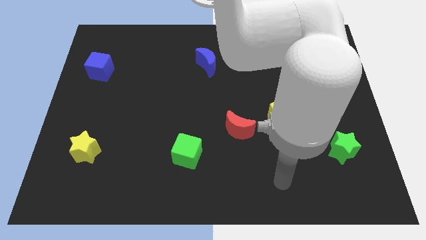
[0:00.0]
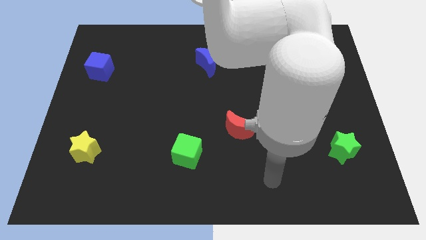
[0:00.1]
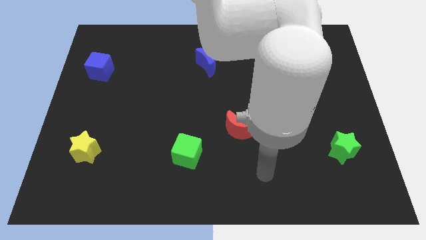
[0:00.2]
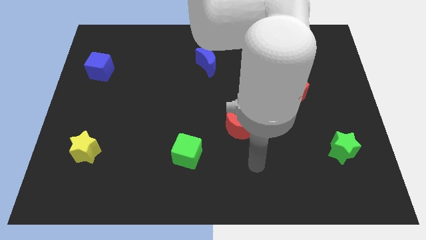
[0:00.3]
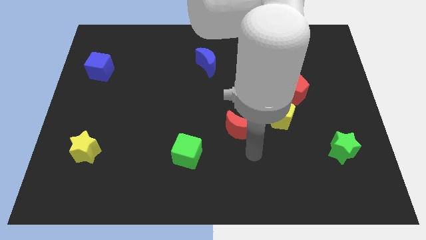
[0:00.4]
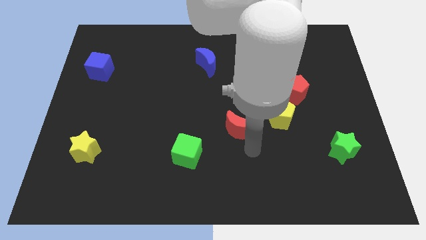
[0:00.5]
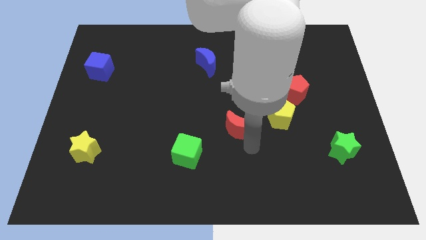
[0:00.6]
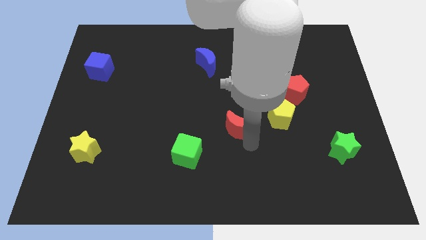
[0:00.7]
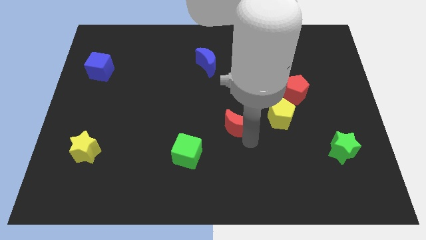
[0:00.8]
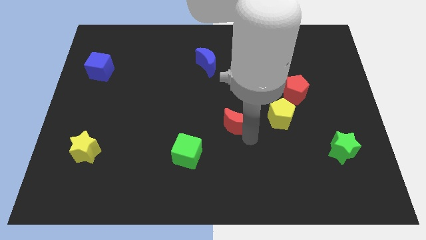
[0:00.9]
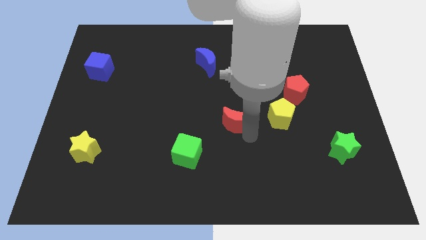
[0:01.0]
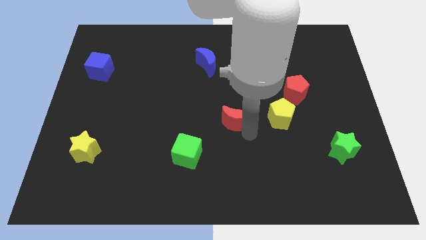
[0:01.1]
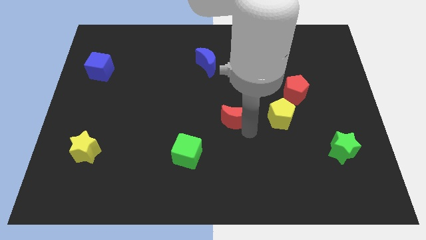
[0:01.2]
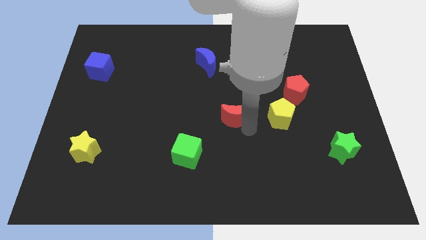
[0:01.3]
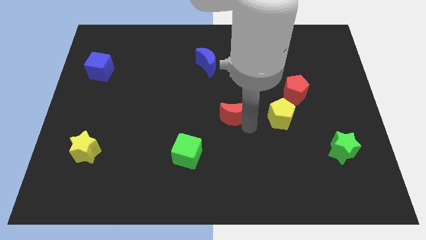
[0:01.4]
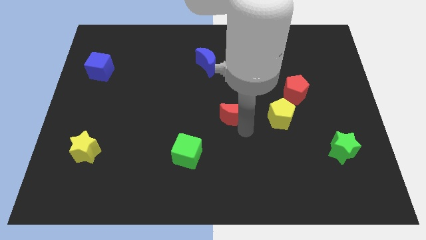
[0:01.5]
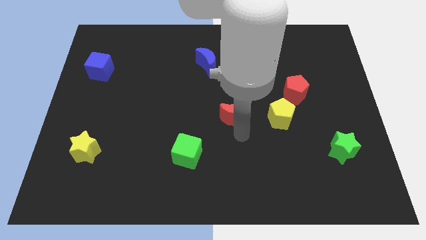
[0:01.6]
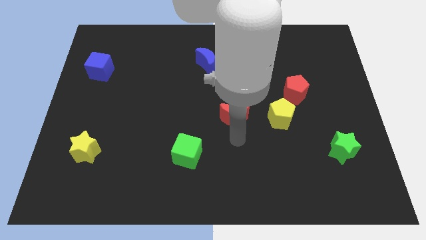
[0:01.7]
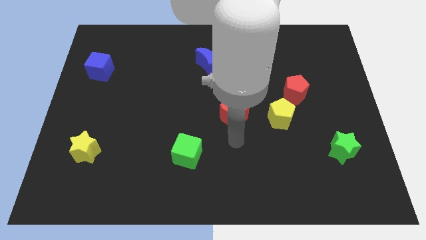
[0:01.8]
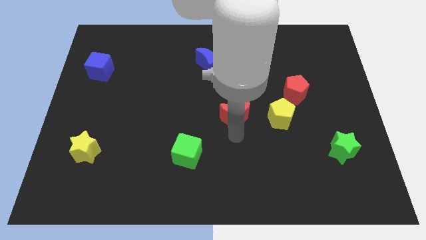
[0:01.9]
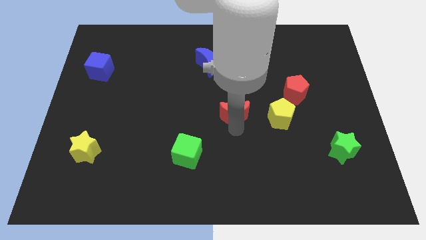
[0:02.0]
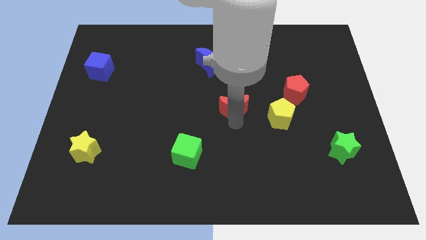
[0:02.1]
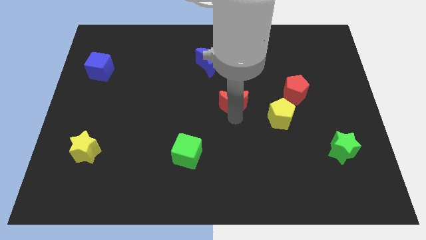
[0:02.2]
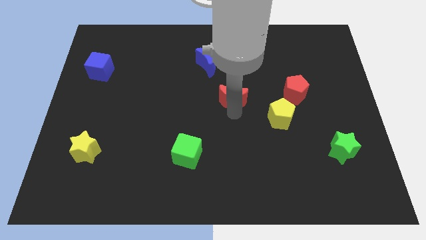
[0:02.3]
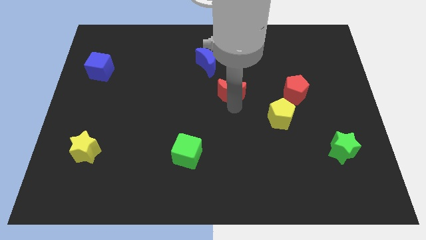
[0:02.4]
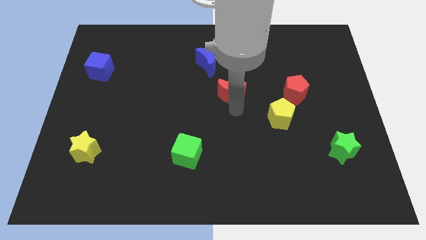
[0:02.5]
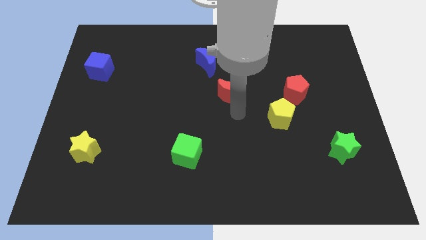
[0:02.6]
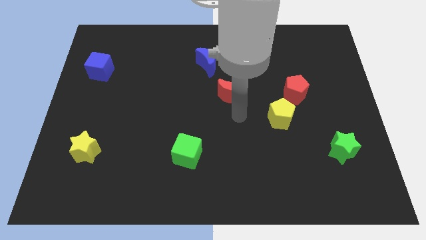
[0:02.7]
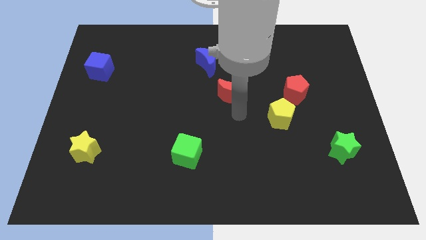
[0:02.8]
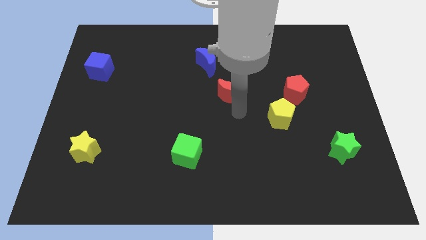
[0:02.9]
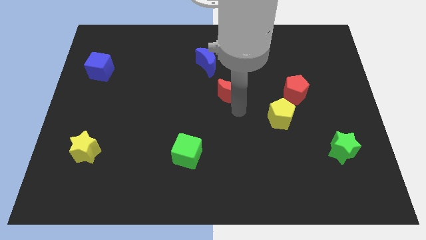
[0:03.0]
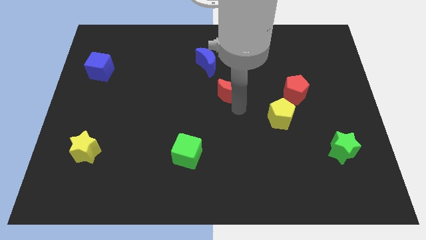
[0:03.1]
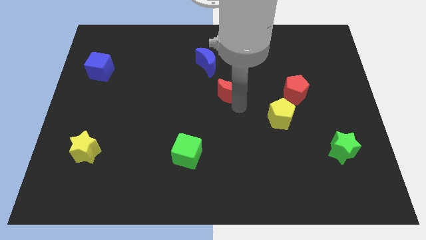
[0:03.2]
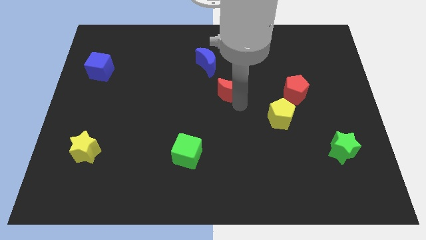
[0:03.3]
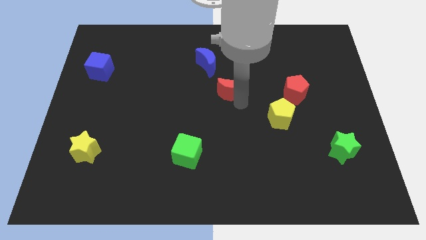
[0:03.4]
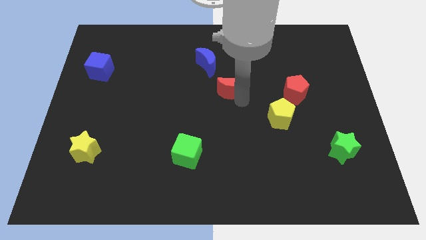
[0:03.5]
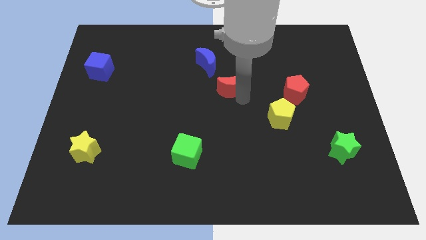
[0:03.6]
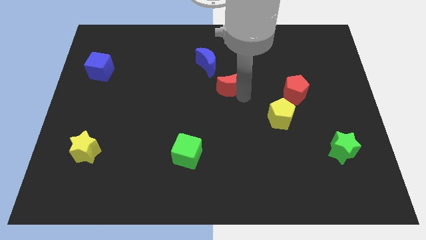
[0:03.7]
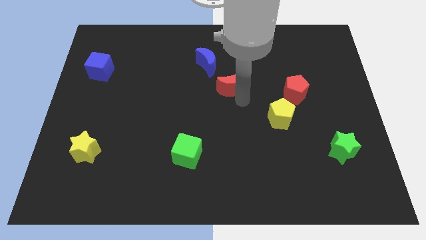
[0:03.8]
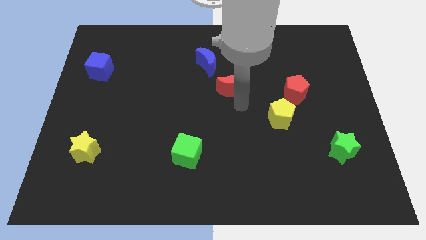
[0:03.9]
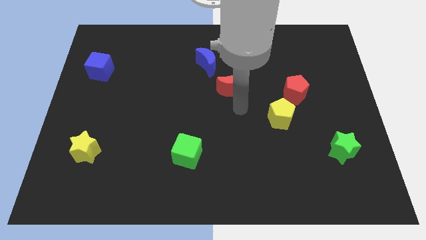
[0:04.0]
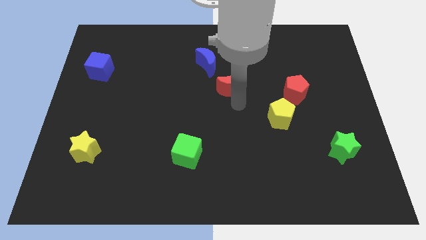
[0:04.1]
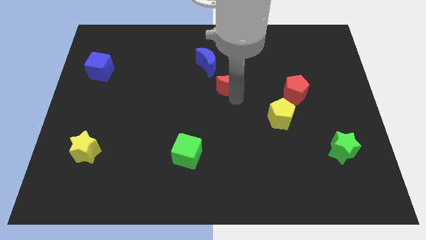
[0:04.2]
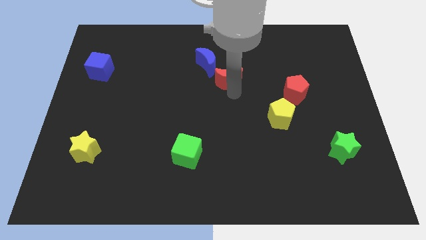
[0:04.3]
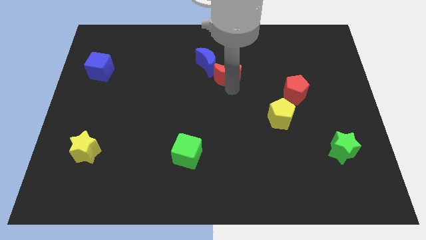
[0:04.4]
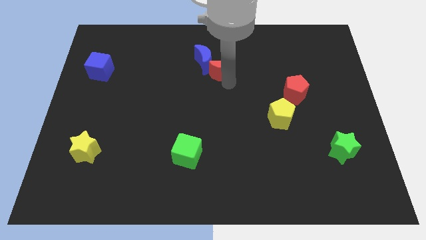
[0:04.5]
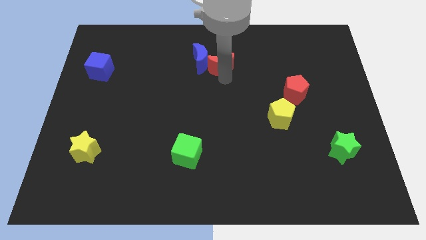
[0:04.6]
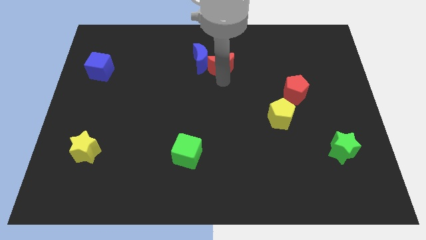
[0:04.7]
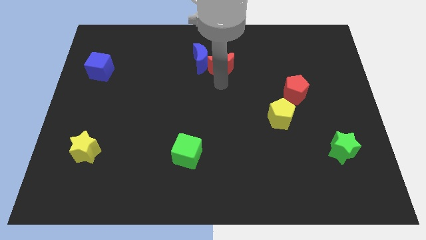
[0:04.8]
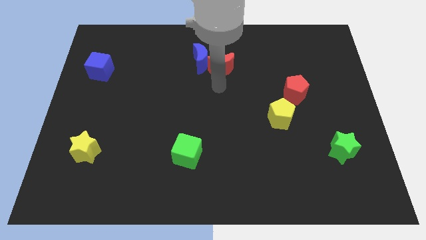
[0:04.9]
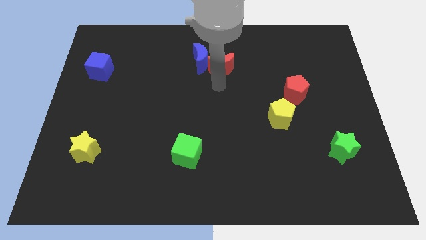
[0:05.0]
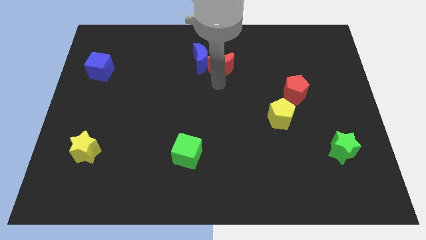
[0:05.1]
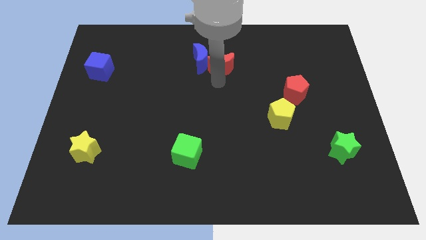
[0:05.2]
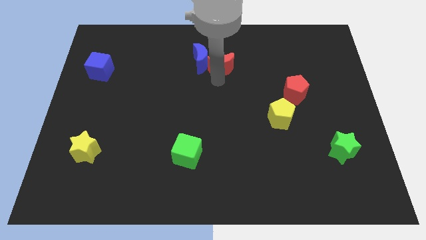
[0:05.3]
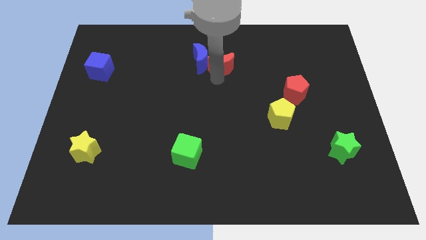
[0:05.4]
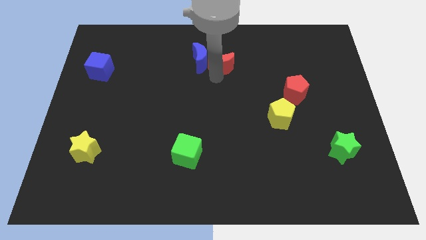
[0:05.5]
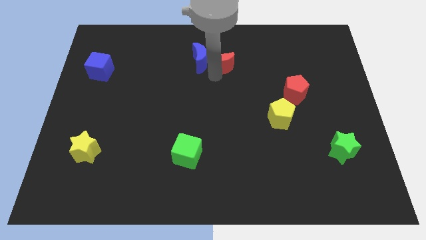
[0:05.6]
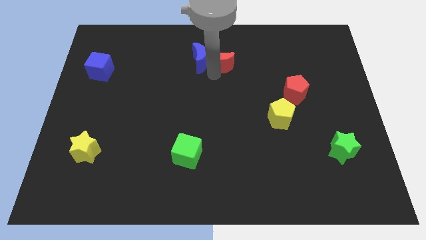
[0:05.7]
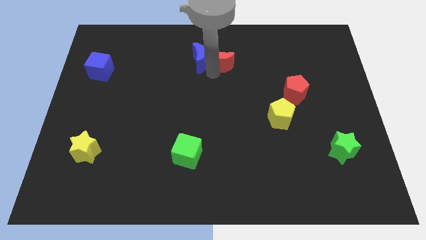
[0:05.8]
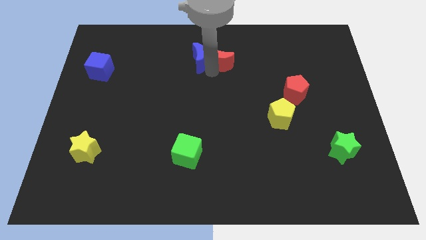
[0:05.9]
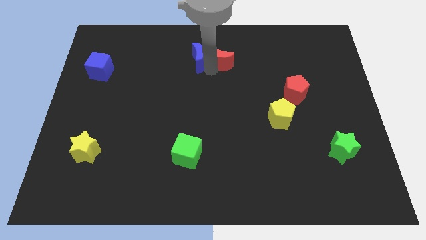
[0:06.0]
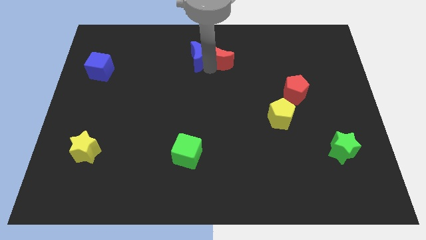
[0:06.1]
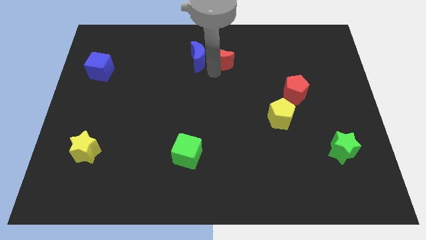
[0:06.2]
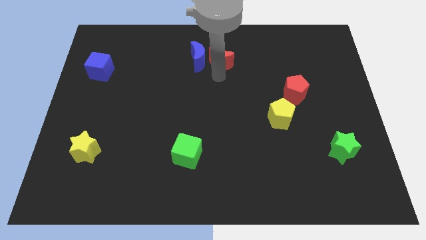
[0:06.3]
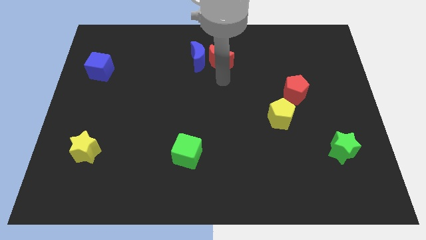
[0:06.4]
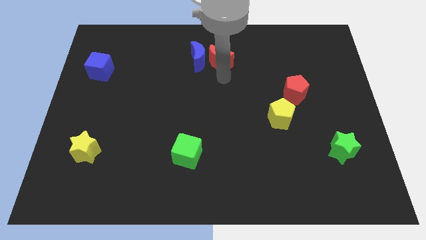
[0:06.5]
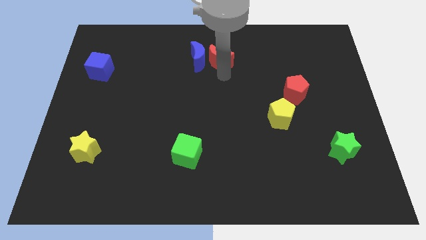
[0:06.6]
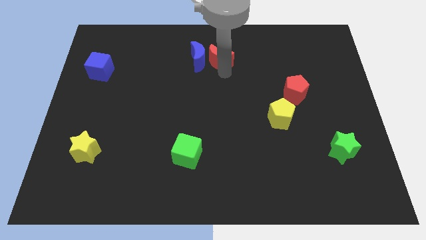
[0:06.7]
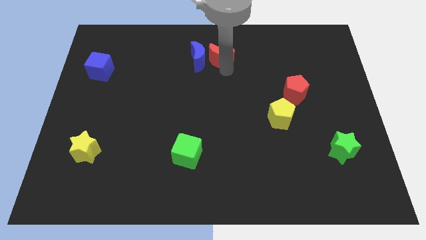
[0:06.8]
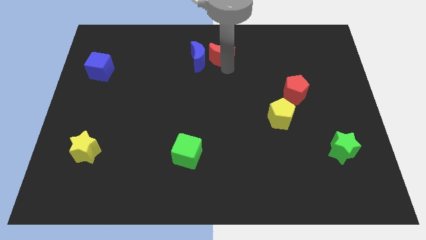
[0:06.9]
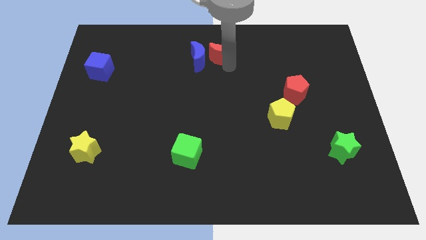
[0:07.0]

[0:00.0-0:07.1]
move the red moon to the top side
